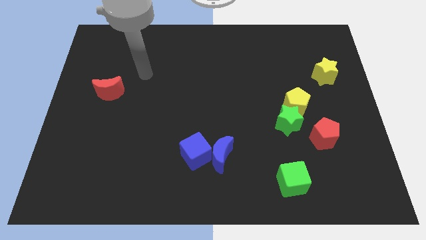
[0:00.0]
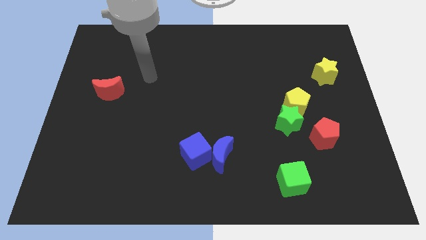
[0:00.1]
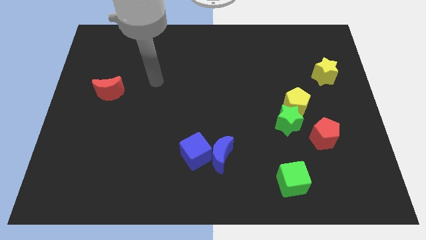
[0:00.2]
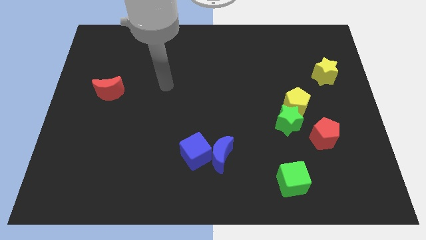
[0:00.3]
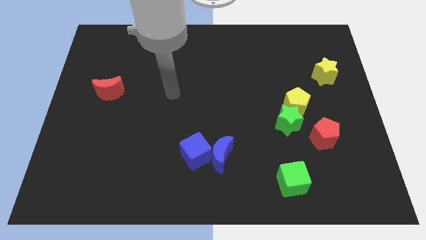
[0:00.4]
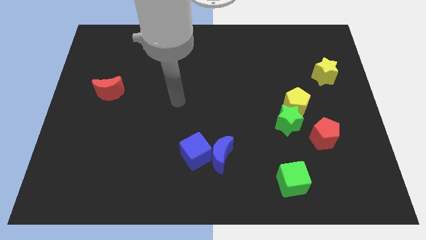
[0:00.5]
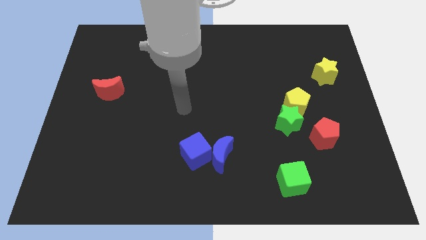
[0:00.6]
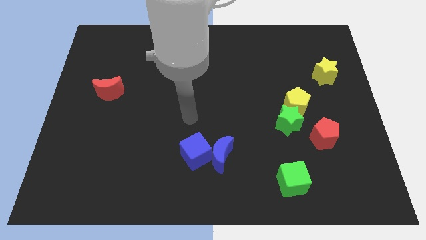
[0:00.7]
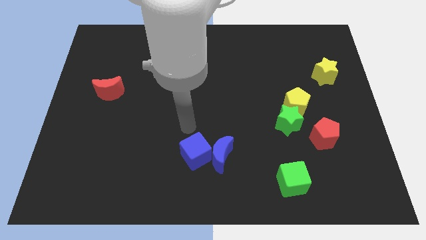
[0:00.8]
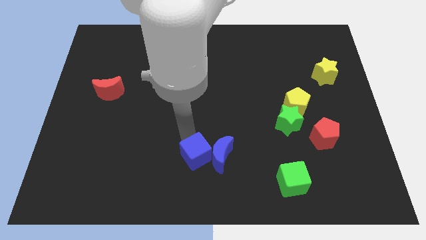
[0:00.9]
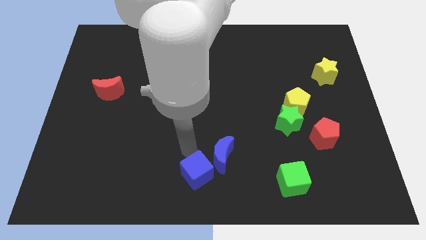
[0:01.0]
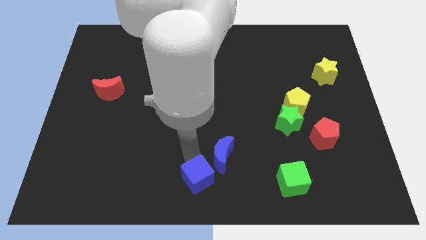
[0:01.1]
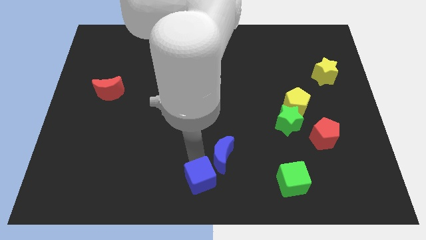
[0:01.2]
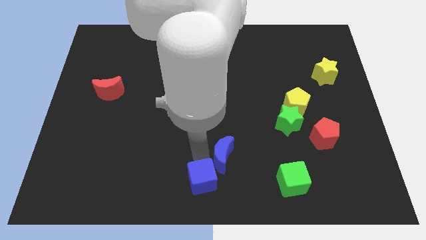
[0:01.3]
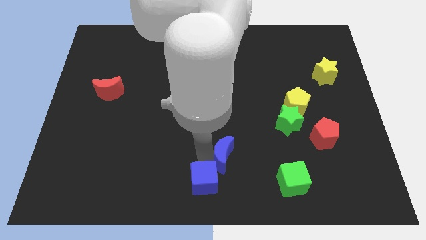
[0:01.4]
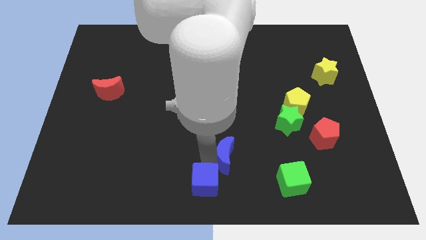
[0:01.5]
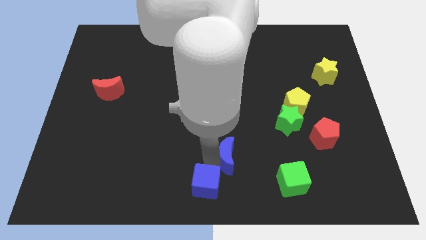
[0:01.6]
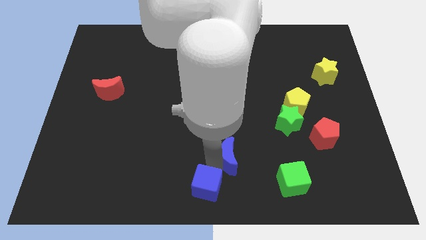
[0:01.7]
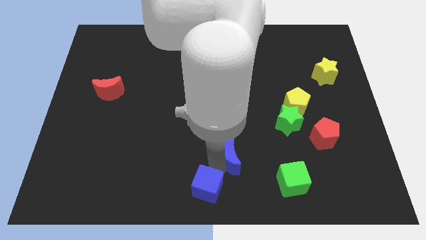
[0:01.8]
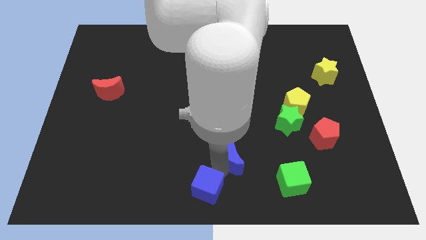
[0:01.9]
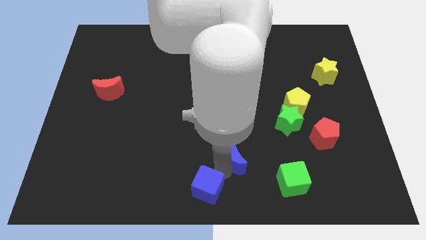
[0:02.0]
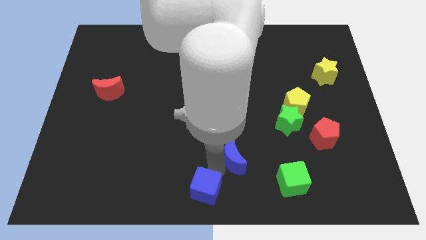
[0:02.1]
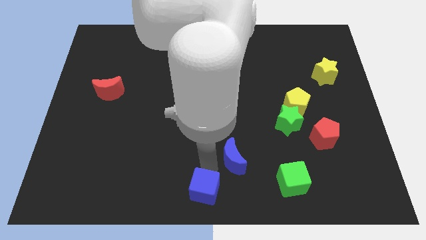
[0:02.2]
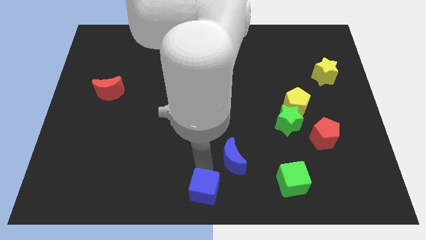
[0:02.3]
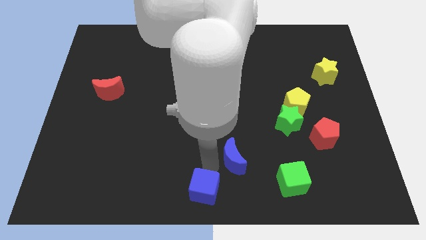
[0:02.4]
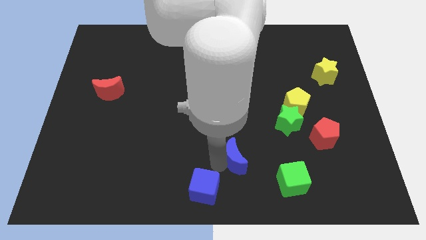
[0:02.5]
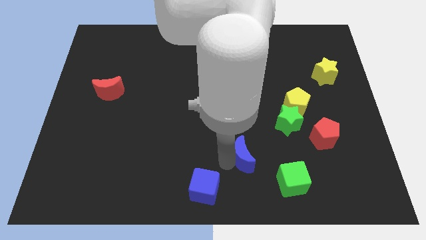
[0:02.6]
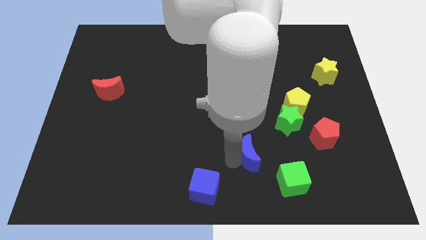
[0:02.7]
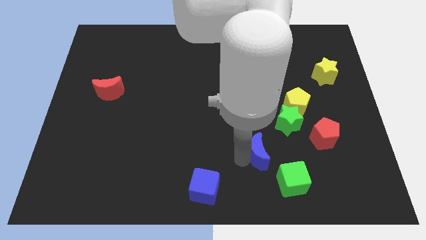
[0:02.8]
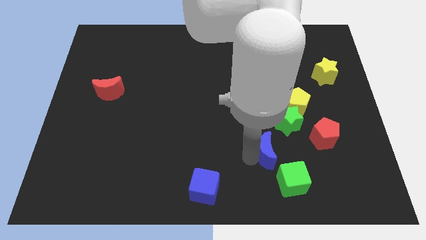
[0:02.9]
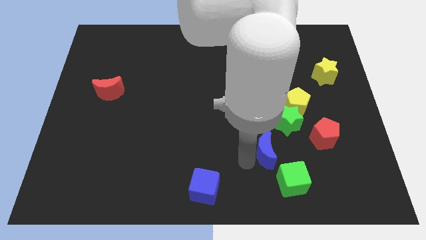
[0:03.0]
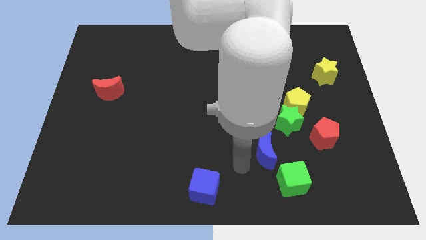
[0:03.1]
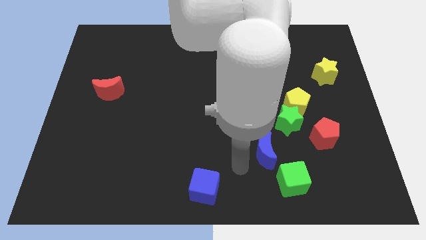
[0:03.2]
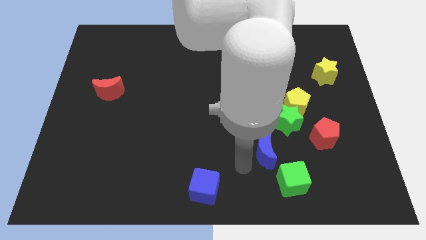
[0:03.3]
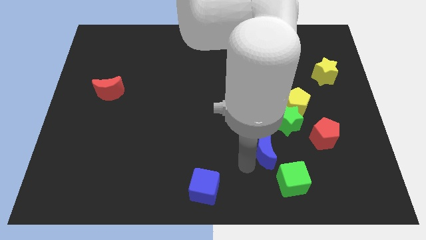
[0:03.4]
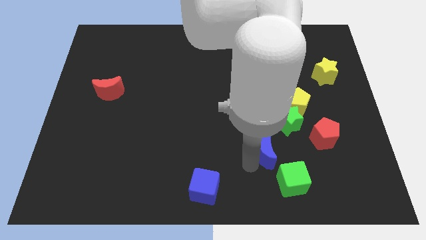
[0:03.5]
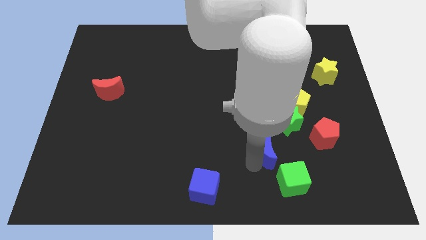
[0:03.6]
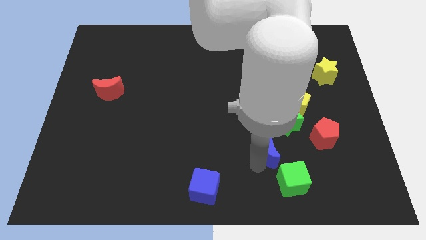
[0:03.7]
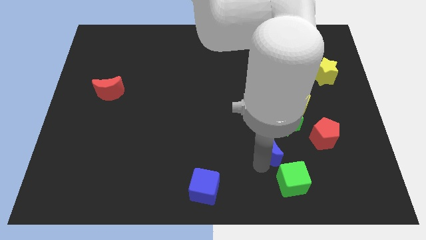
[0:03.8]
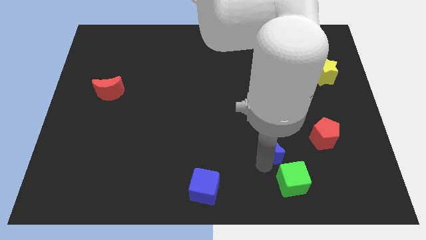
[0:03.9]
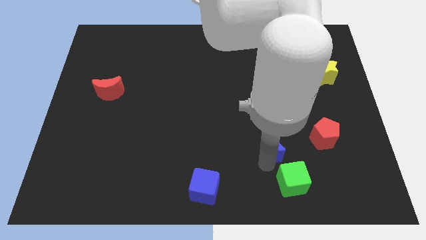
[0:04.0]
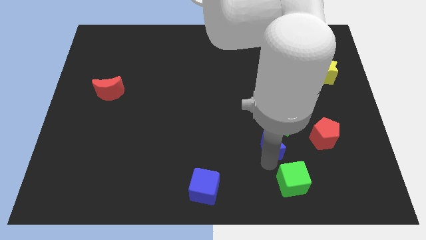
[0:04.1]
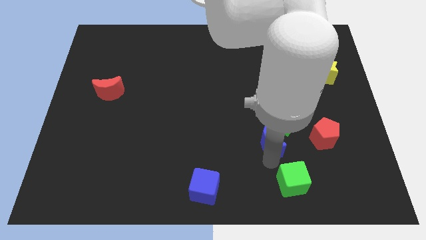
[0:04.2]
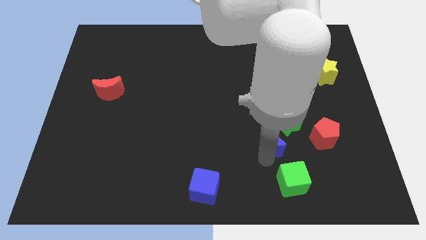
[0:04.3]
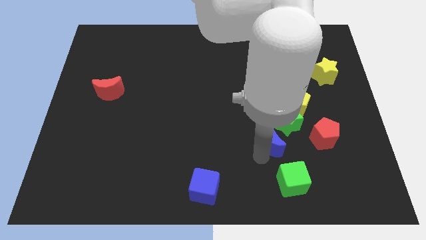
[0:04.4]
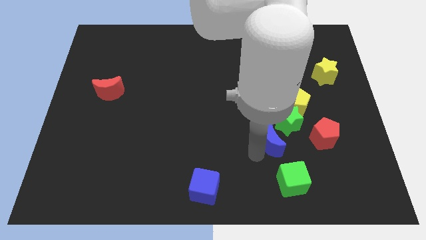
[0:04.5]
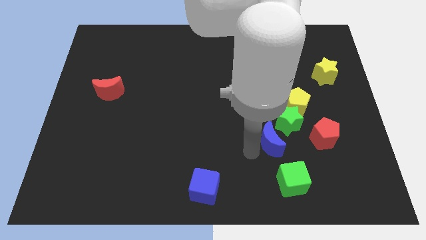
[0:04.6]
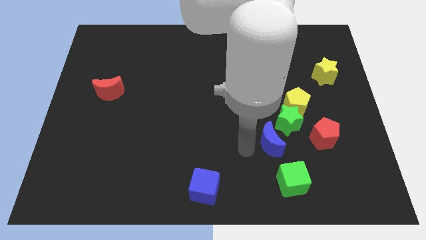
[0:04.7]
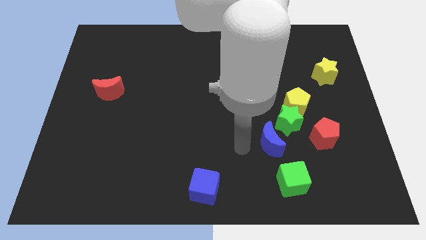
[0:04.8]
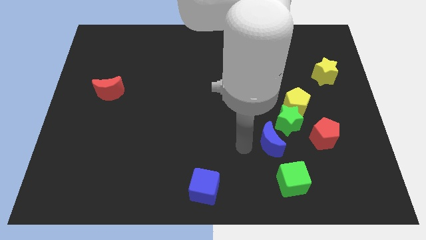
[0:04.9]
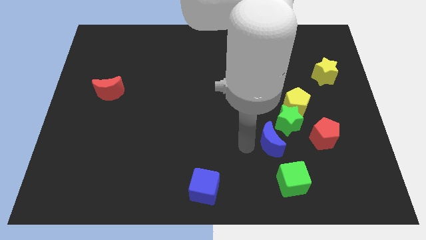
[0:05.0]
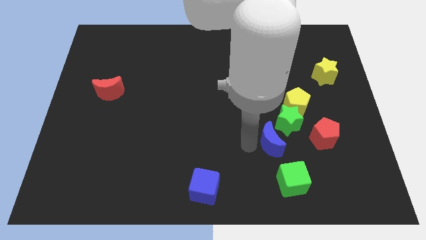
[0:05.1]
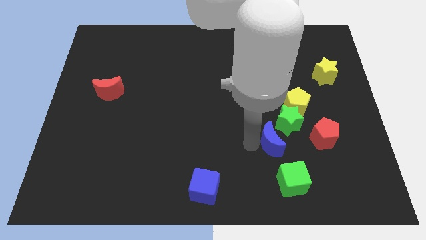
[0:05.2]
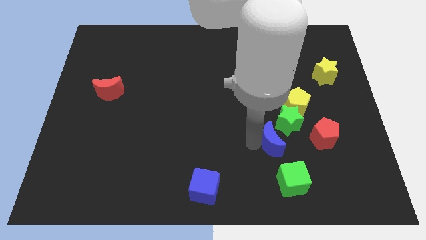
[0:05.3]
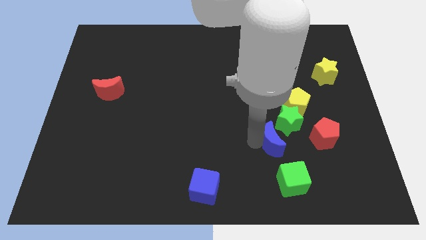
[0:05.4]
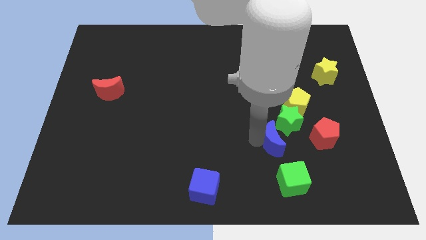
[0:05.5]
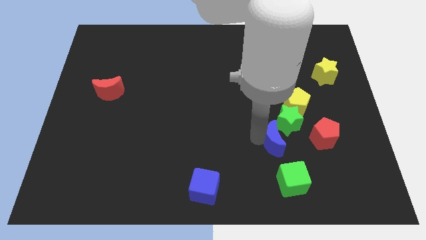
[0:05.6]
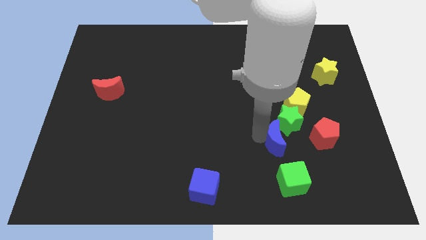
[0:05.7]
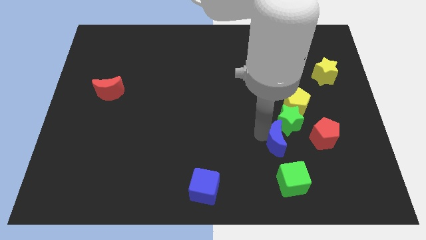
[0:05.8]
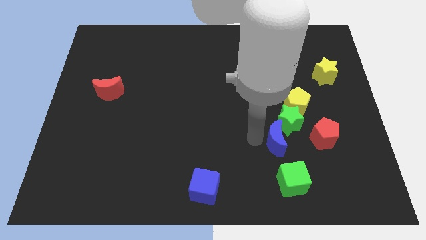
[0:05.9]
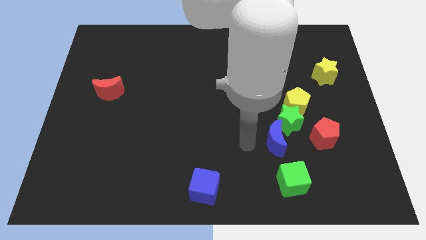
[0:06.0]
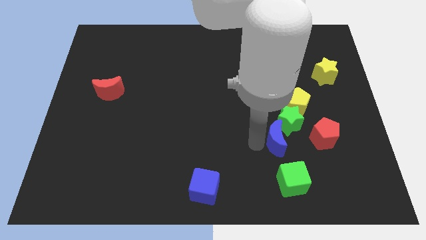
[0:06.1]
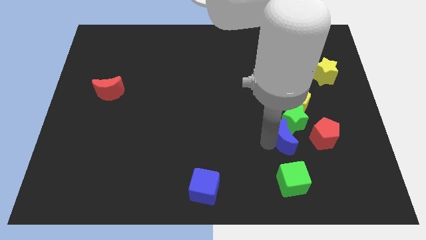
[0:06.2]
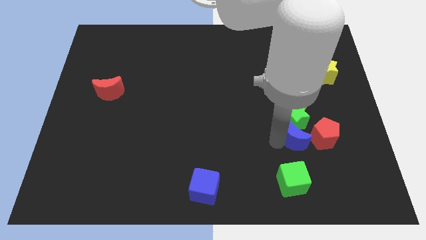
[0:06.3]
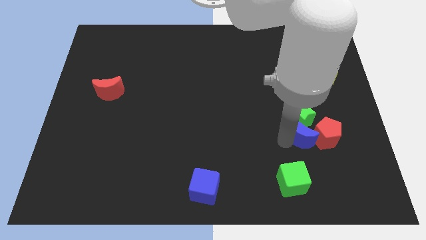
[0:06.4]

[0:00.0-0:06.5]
move the blue moon to the red pentagon

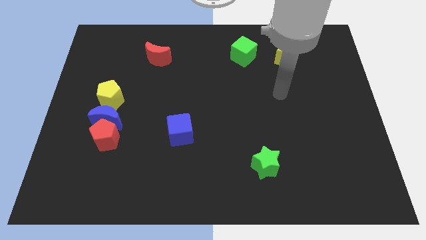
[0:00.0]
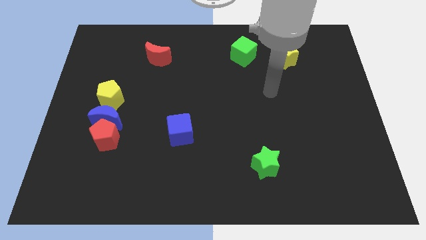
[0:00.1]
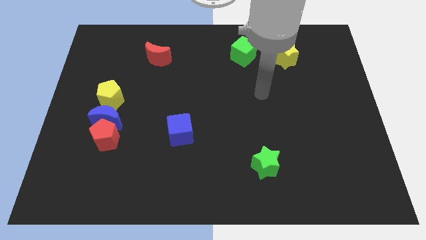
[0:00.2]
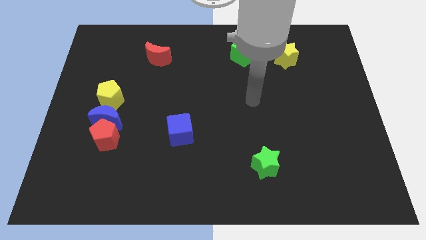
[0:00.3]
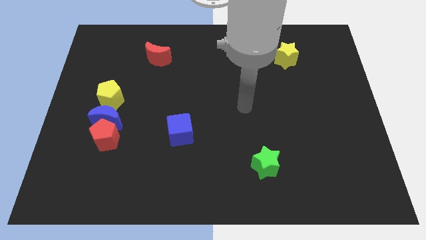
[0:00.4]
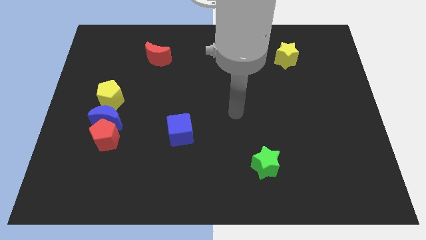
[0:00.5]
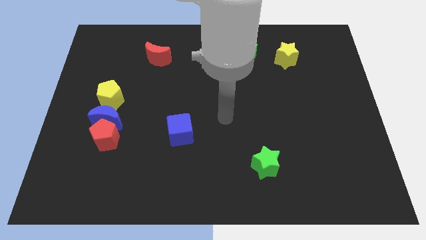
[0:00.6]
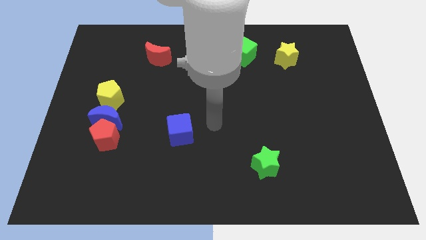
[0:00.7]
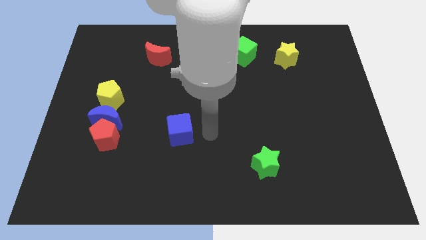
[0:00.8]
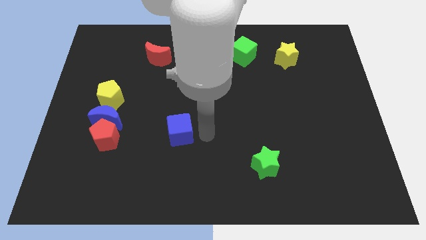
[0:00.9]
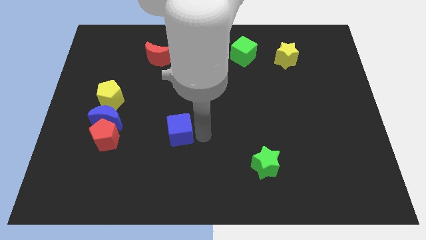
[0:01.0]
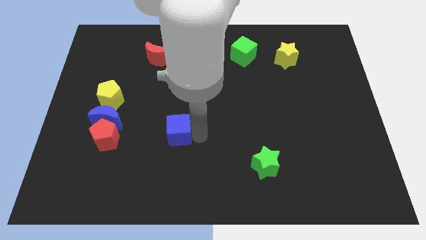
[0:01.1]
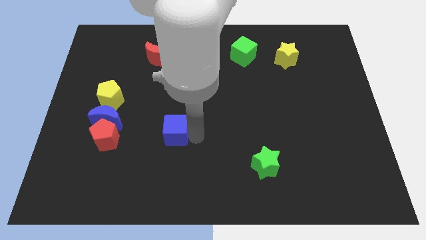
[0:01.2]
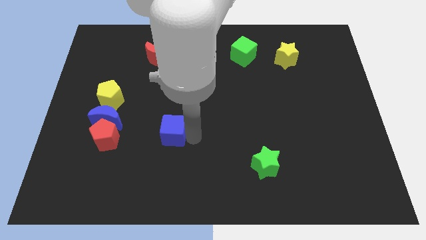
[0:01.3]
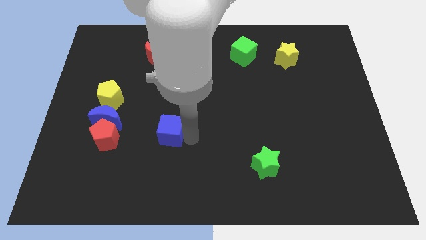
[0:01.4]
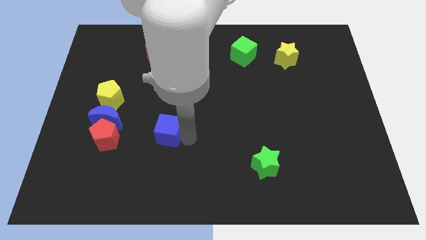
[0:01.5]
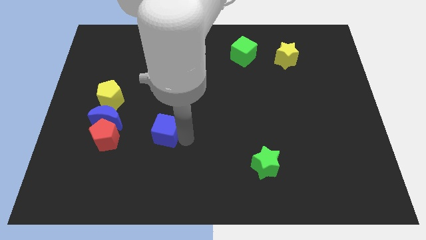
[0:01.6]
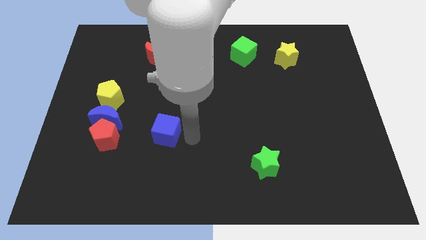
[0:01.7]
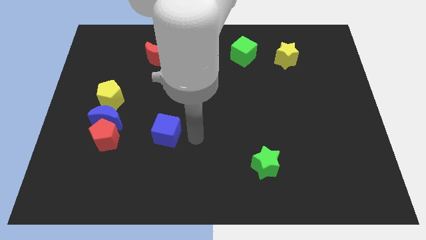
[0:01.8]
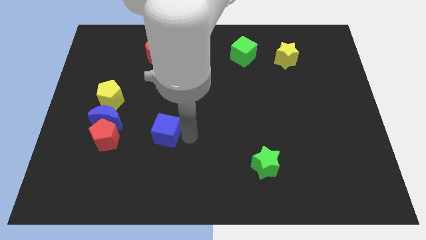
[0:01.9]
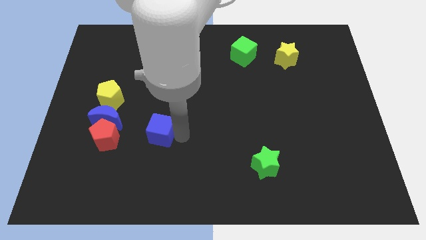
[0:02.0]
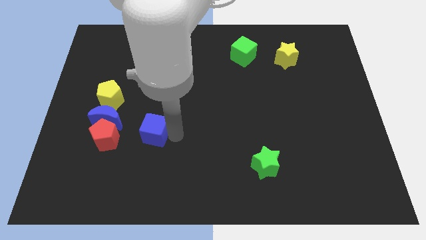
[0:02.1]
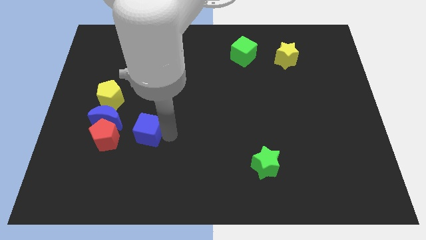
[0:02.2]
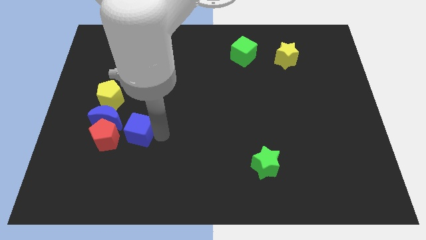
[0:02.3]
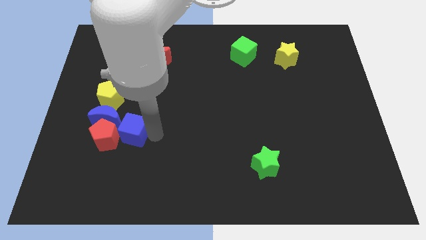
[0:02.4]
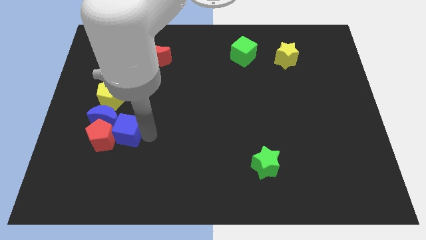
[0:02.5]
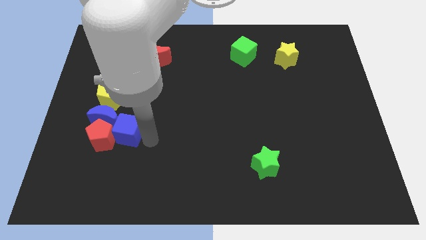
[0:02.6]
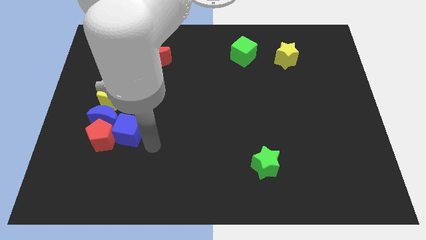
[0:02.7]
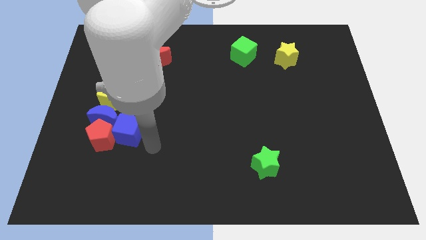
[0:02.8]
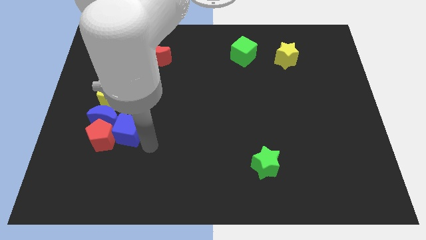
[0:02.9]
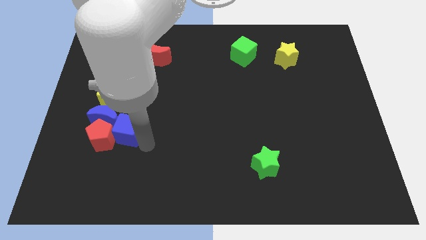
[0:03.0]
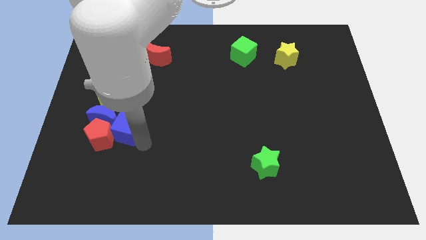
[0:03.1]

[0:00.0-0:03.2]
put the blue cube towards the blue moon
